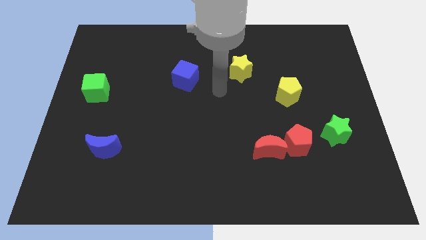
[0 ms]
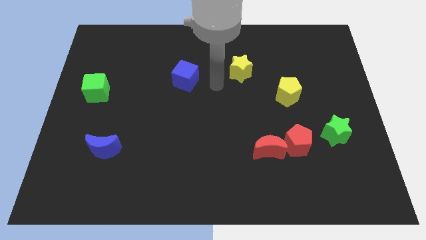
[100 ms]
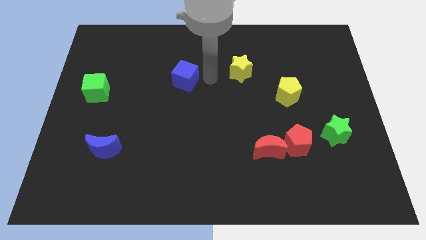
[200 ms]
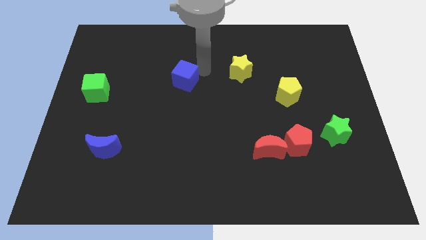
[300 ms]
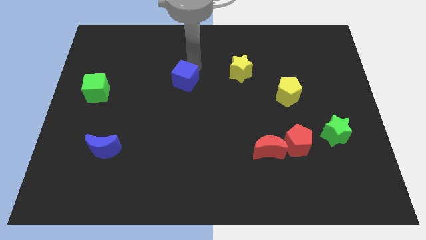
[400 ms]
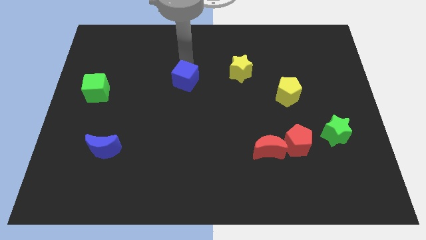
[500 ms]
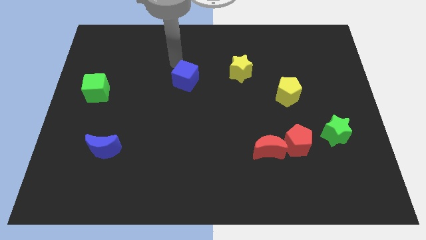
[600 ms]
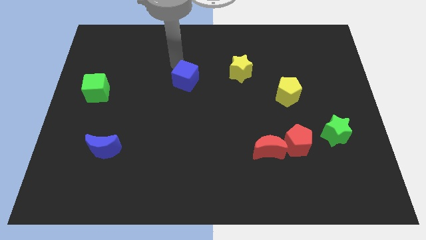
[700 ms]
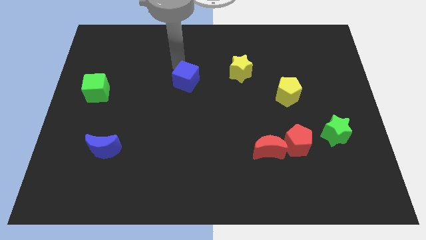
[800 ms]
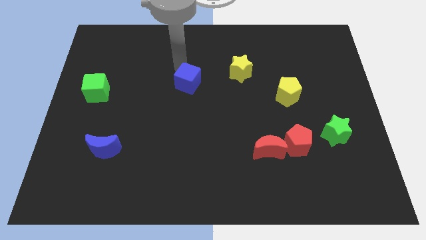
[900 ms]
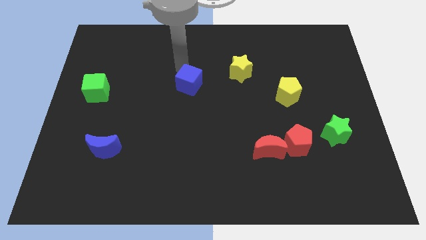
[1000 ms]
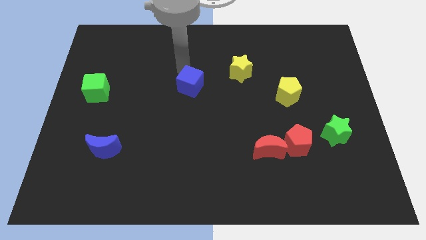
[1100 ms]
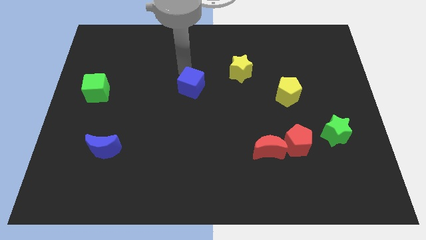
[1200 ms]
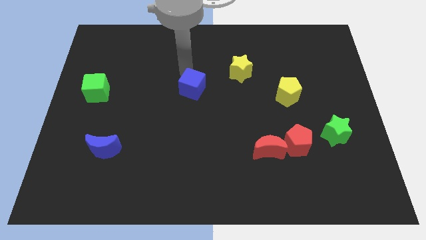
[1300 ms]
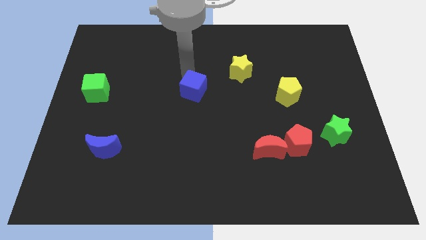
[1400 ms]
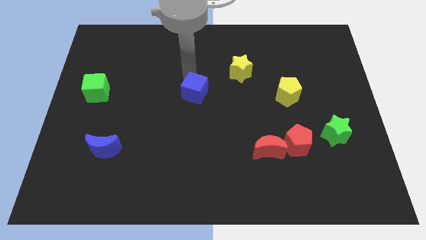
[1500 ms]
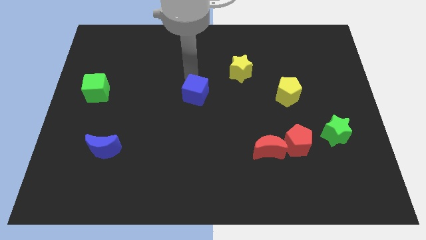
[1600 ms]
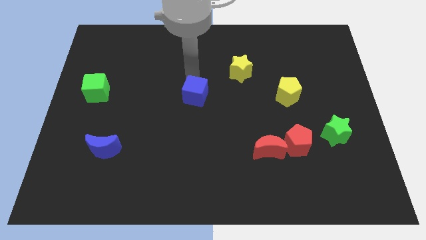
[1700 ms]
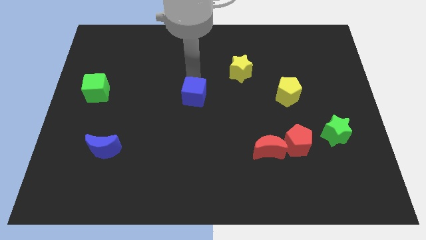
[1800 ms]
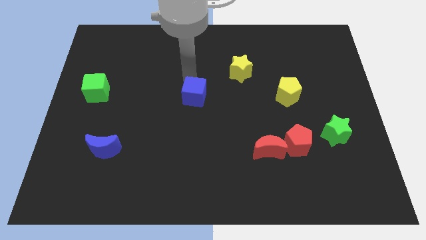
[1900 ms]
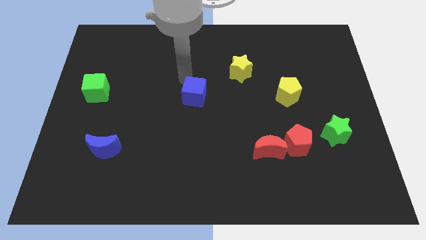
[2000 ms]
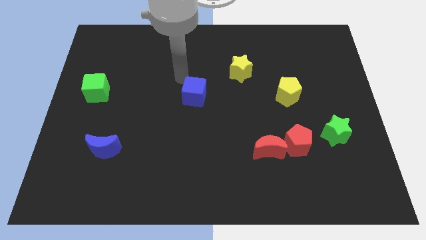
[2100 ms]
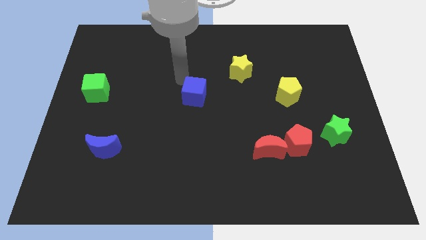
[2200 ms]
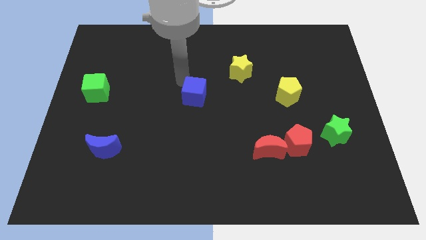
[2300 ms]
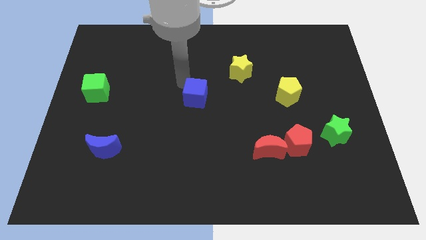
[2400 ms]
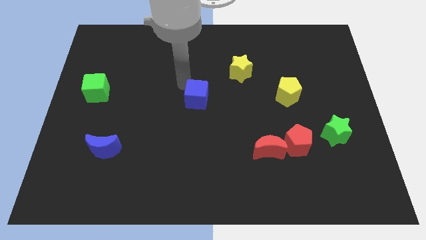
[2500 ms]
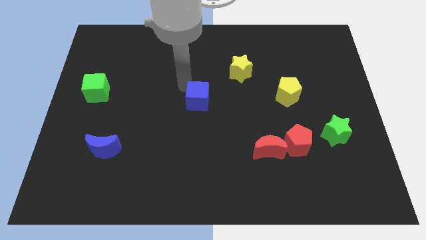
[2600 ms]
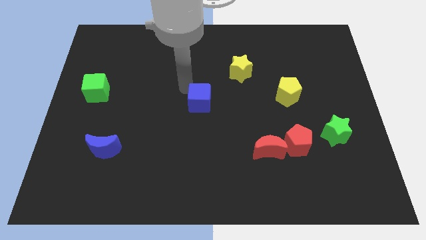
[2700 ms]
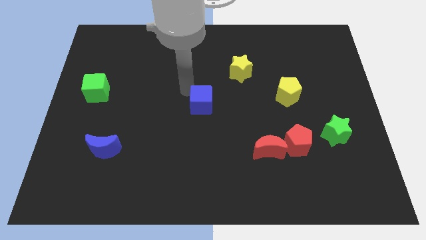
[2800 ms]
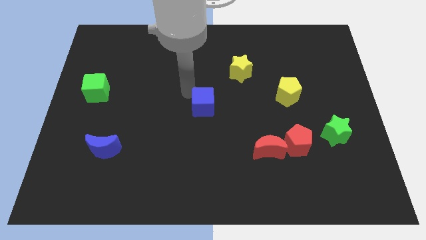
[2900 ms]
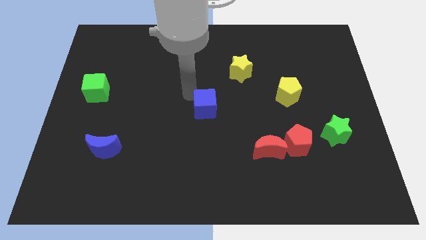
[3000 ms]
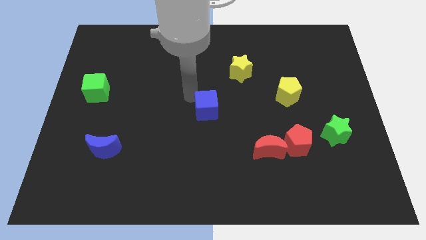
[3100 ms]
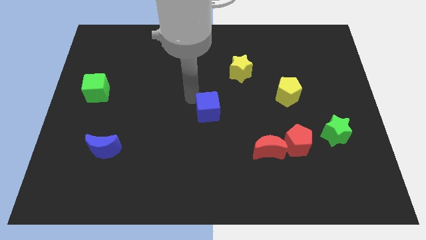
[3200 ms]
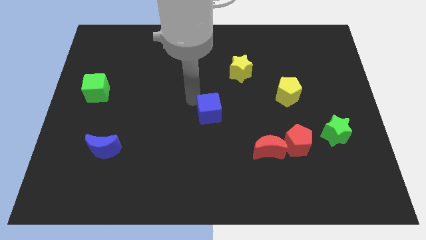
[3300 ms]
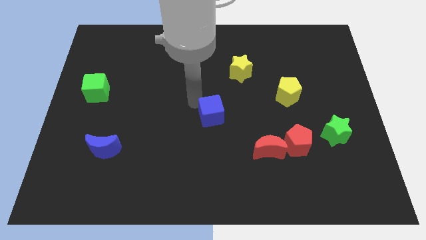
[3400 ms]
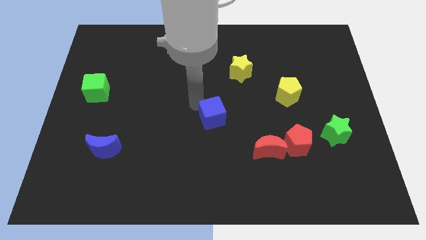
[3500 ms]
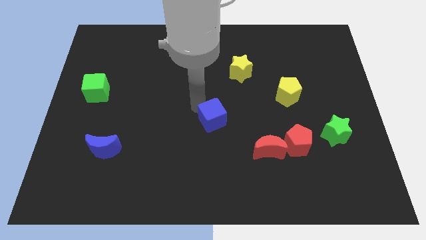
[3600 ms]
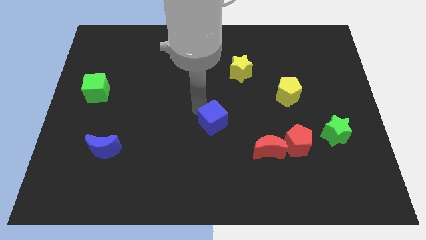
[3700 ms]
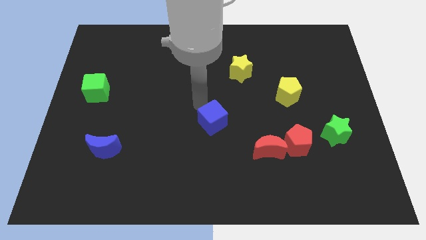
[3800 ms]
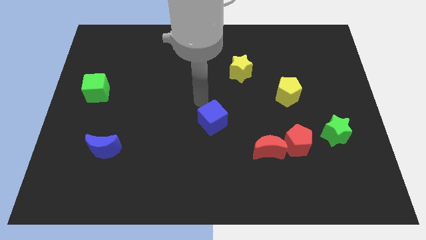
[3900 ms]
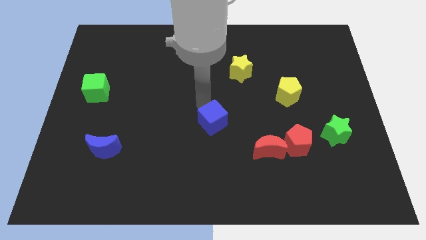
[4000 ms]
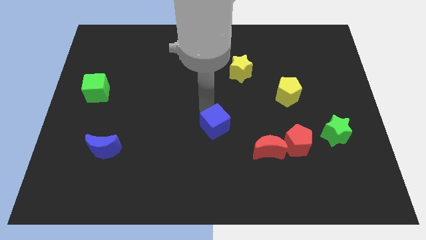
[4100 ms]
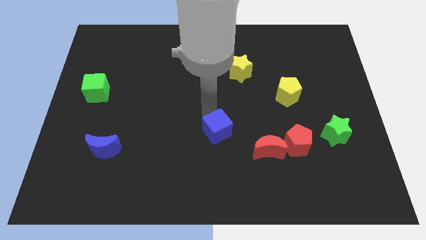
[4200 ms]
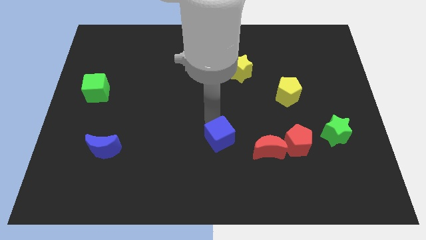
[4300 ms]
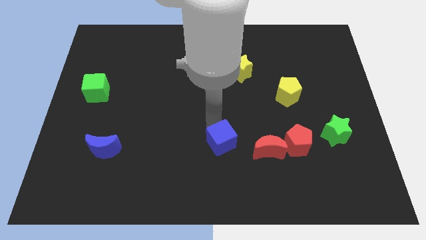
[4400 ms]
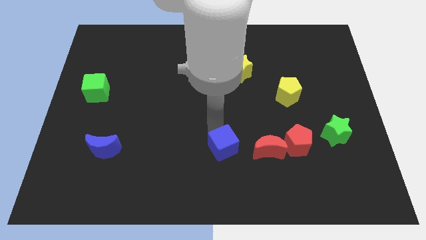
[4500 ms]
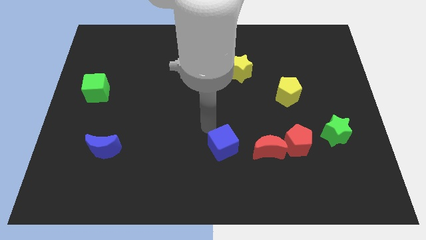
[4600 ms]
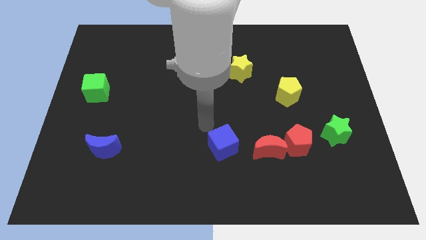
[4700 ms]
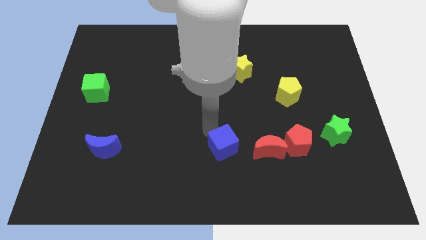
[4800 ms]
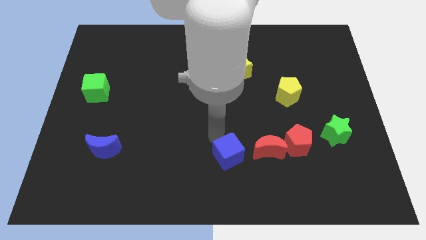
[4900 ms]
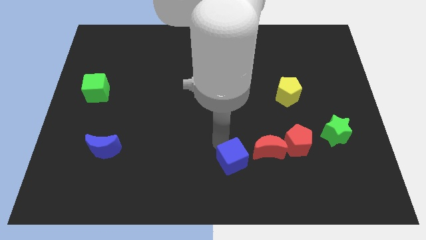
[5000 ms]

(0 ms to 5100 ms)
slide the blue cube diagonally down and to the left of the red moon

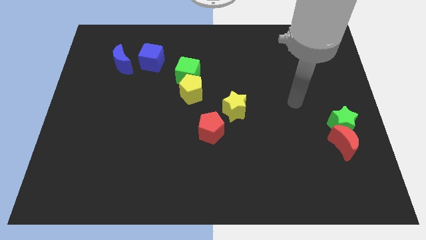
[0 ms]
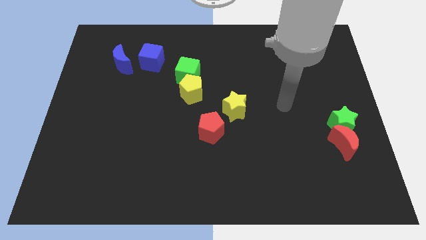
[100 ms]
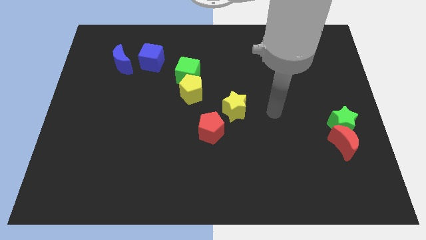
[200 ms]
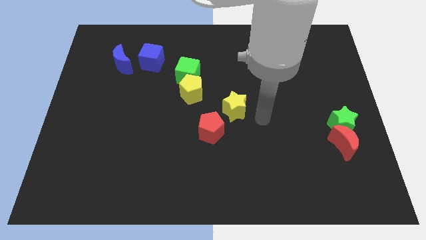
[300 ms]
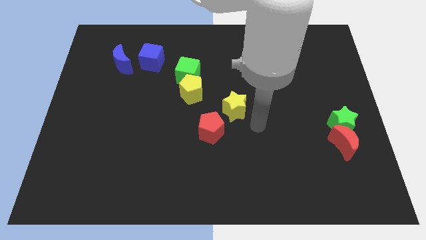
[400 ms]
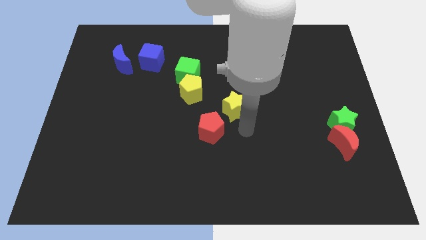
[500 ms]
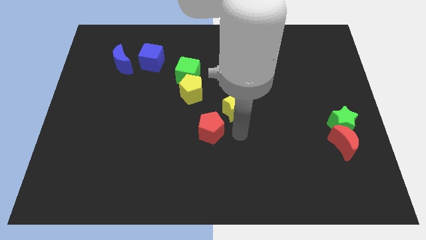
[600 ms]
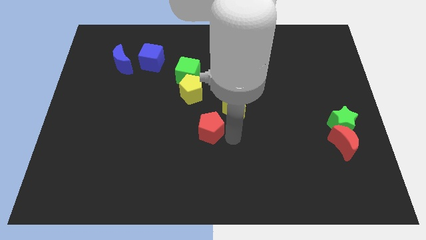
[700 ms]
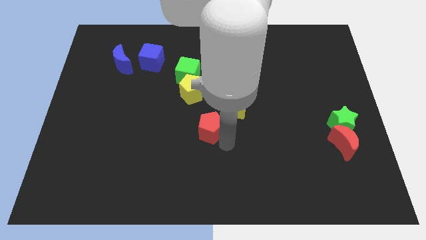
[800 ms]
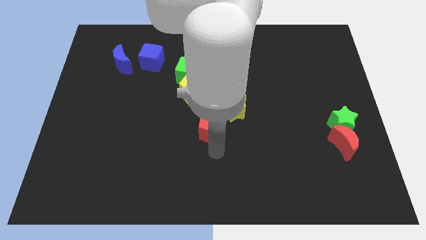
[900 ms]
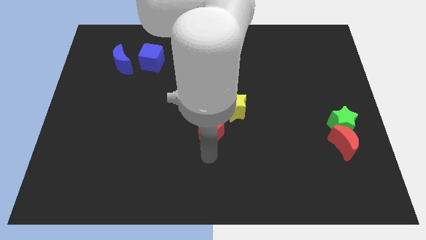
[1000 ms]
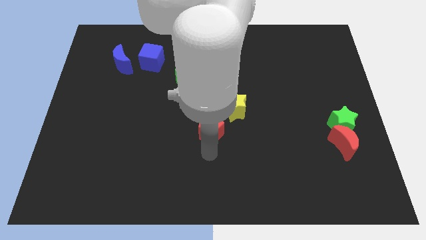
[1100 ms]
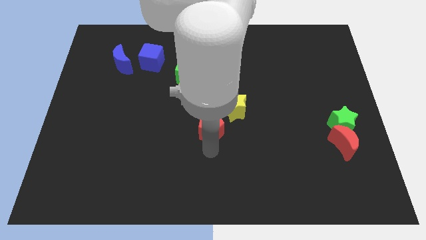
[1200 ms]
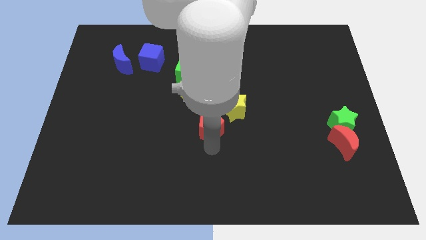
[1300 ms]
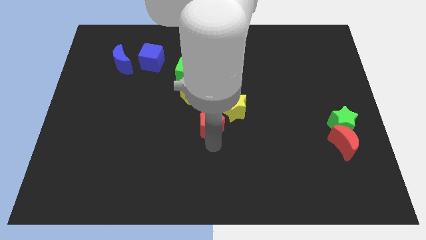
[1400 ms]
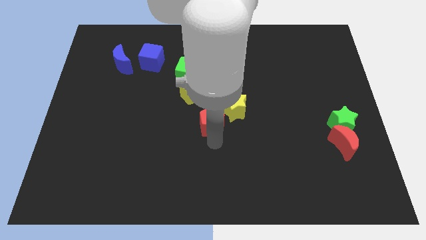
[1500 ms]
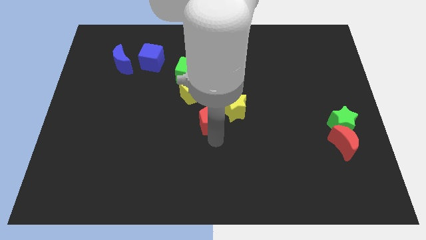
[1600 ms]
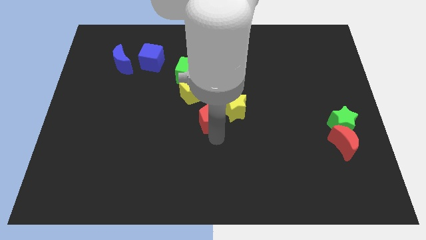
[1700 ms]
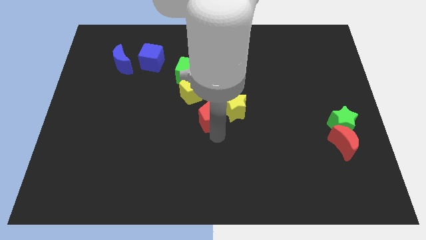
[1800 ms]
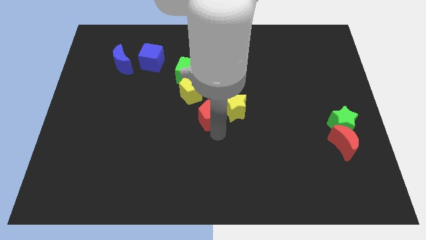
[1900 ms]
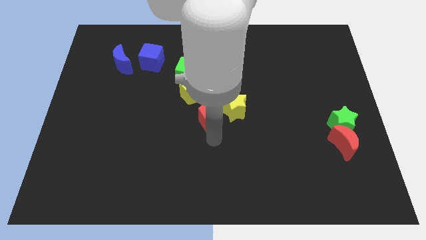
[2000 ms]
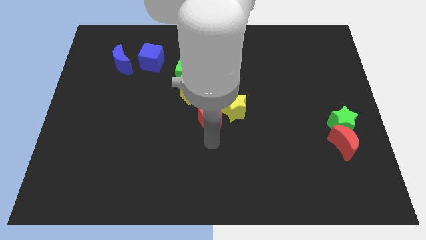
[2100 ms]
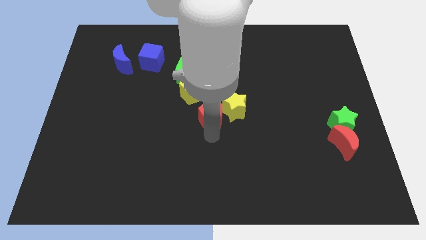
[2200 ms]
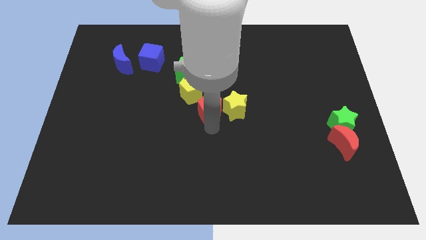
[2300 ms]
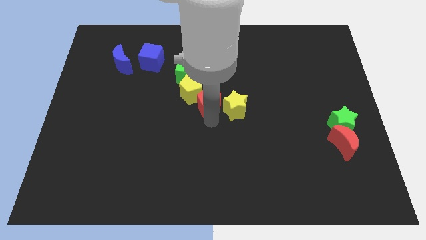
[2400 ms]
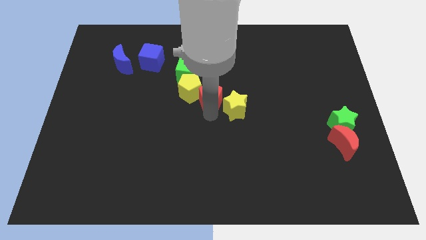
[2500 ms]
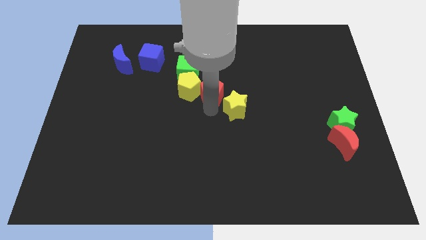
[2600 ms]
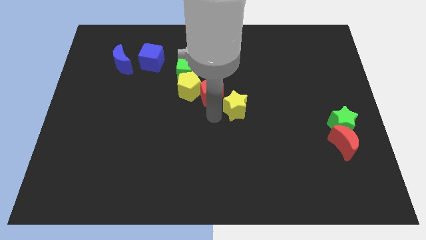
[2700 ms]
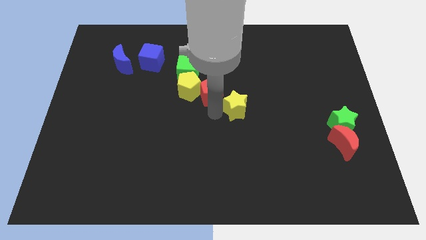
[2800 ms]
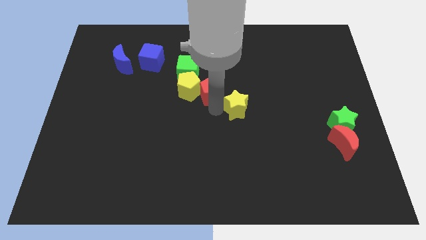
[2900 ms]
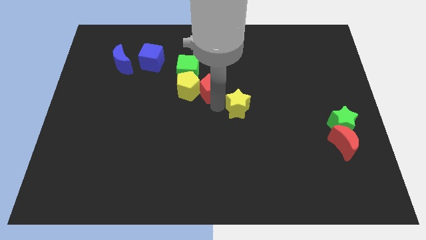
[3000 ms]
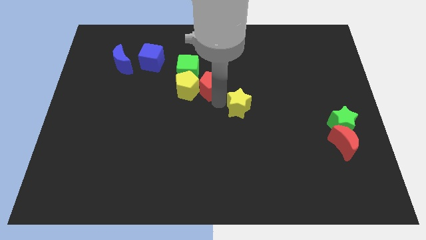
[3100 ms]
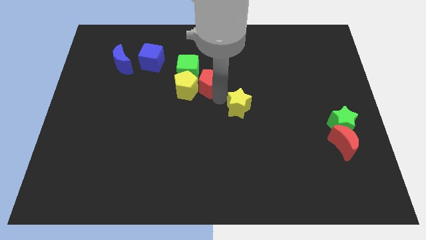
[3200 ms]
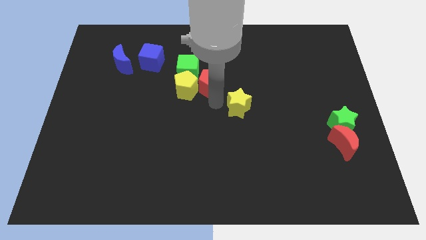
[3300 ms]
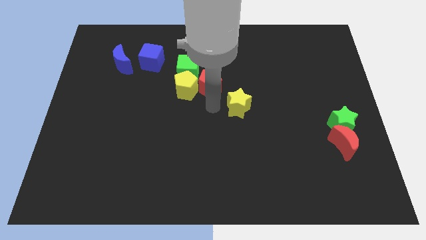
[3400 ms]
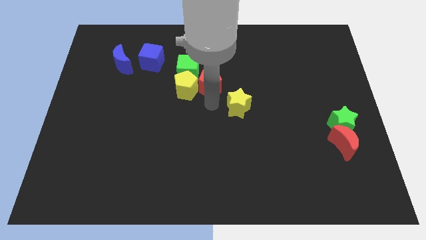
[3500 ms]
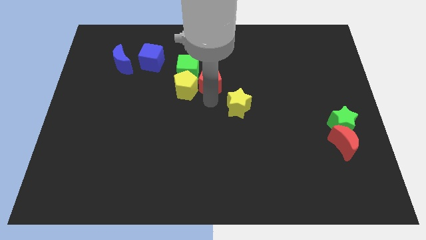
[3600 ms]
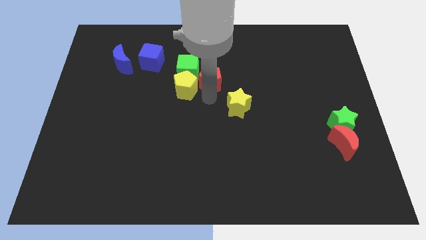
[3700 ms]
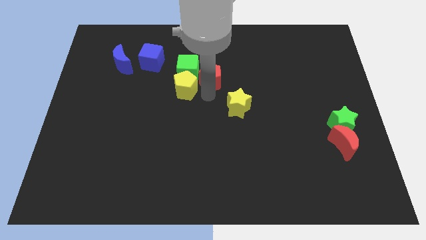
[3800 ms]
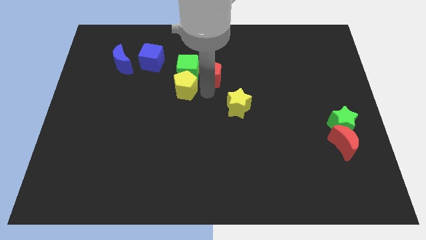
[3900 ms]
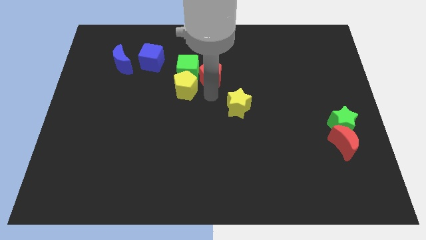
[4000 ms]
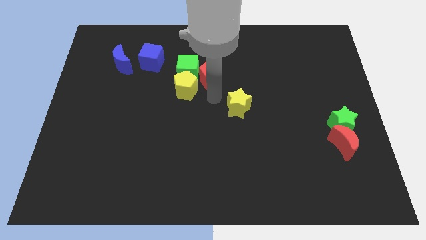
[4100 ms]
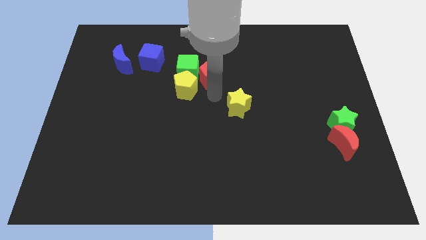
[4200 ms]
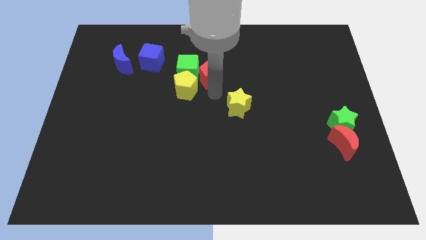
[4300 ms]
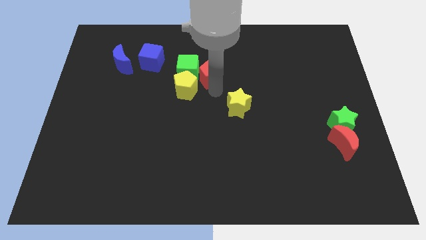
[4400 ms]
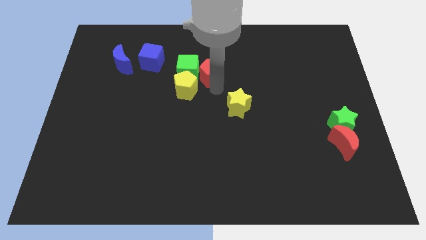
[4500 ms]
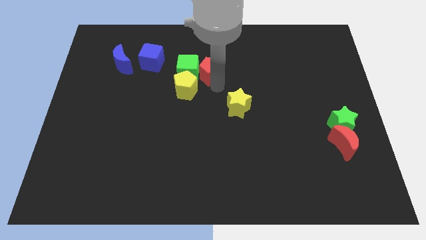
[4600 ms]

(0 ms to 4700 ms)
put the red pentagon to the top right side of the green cube
